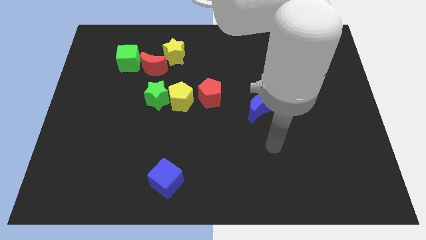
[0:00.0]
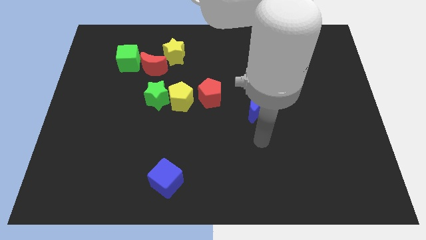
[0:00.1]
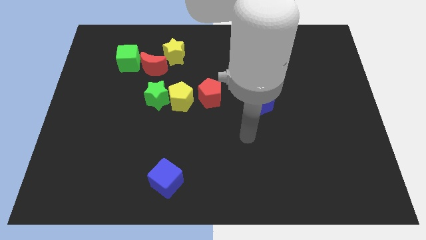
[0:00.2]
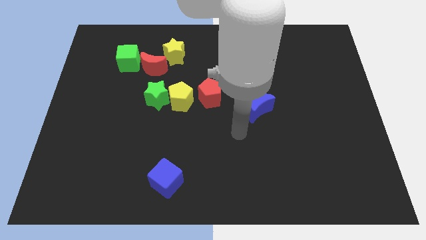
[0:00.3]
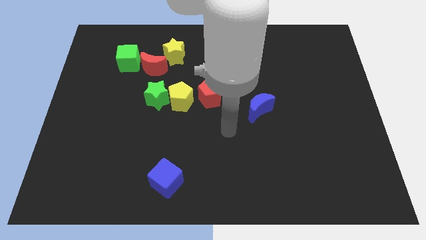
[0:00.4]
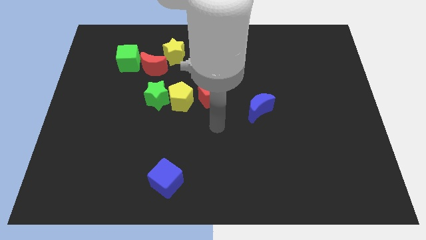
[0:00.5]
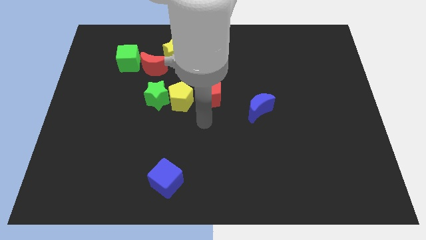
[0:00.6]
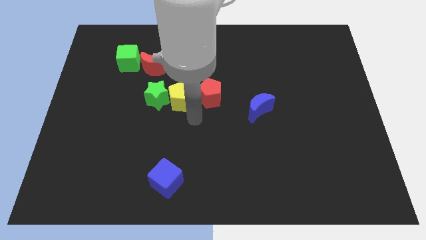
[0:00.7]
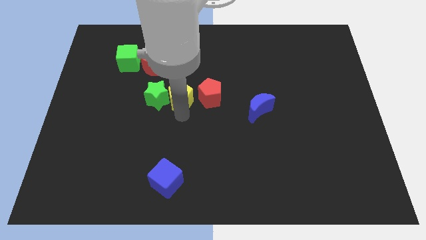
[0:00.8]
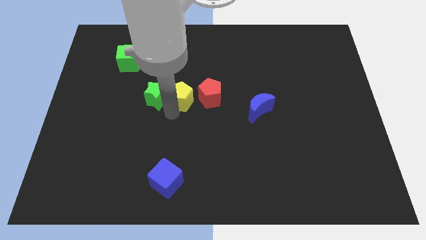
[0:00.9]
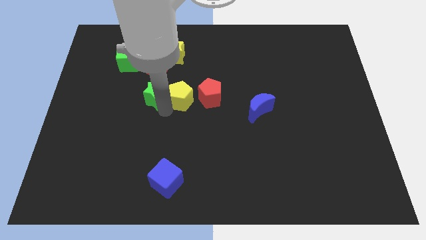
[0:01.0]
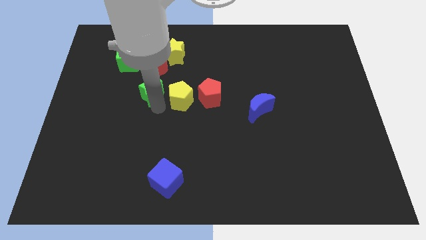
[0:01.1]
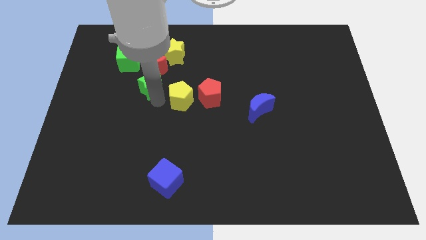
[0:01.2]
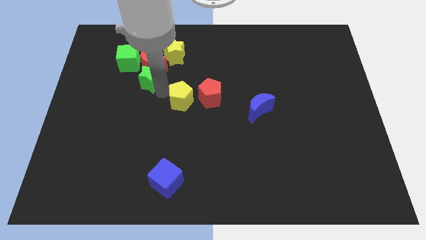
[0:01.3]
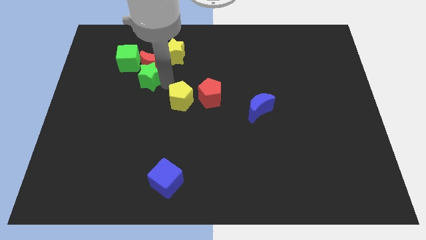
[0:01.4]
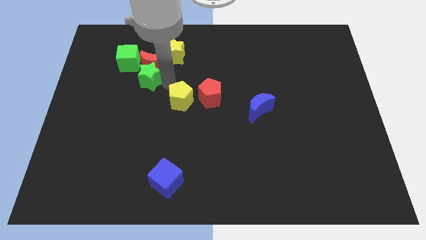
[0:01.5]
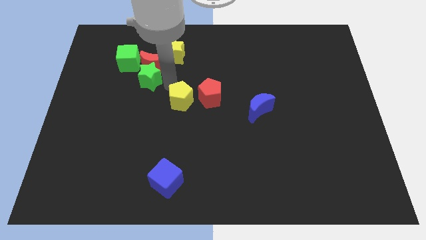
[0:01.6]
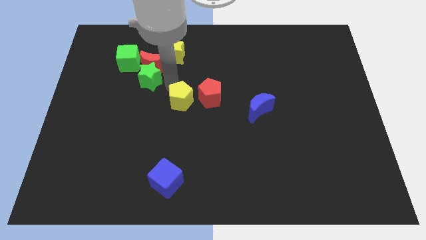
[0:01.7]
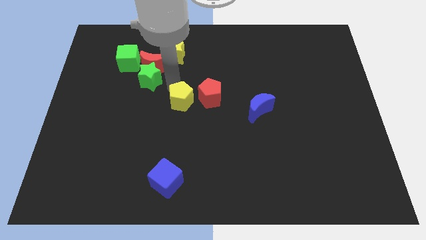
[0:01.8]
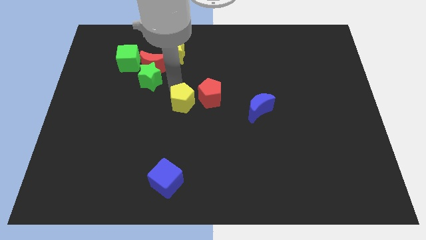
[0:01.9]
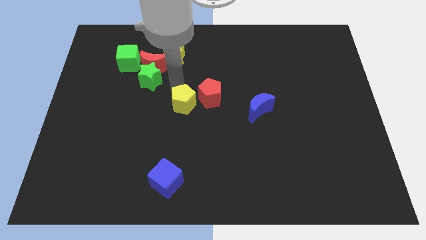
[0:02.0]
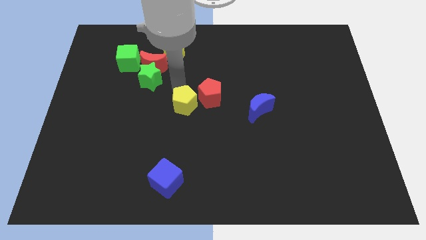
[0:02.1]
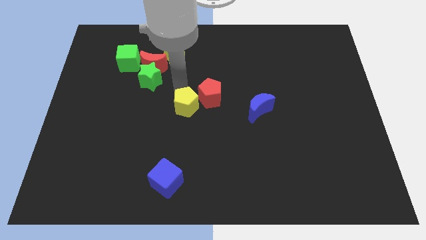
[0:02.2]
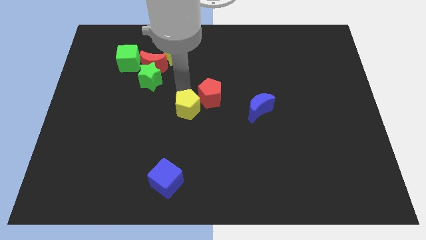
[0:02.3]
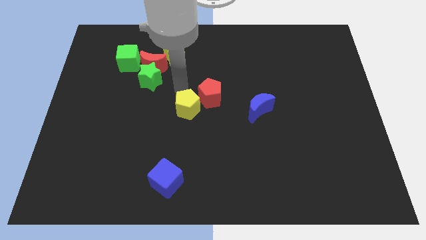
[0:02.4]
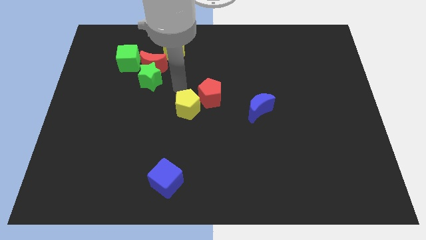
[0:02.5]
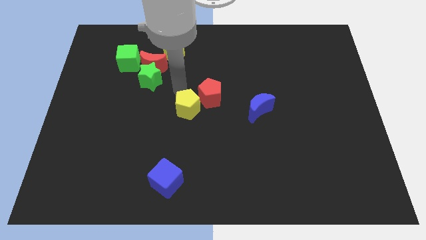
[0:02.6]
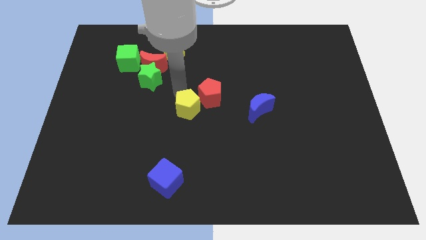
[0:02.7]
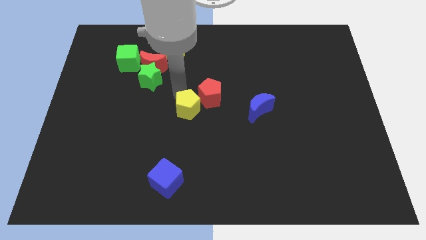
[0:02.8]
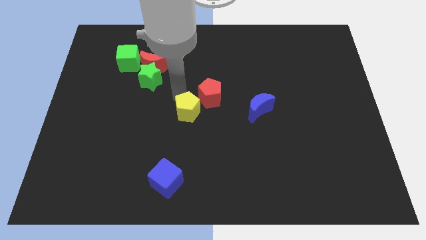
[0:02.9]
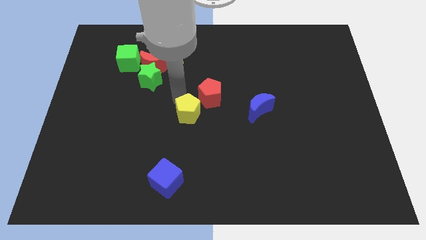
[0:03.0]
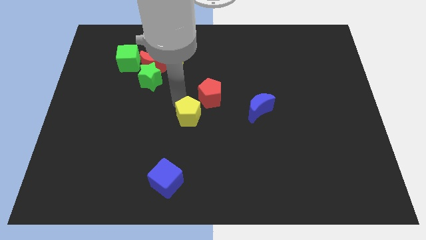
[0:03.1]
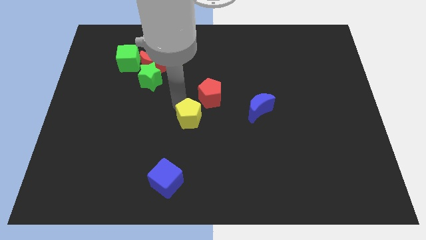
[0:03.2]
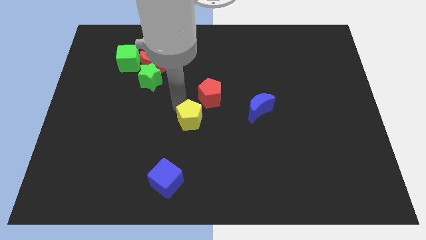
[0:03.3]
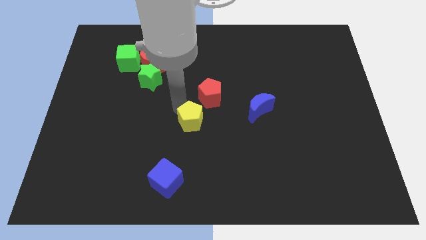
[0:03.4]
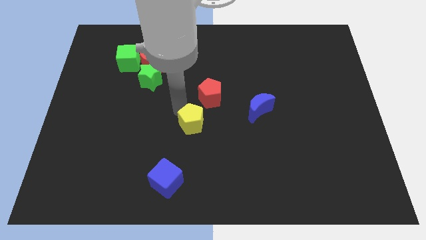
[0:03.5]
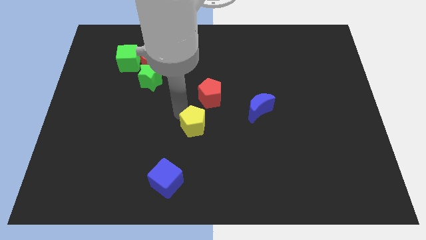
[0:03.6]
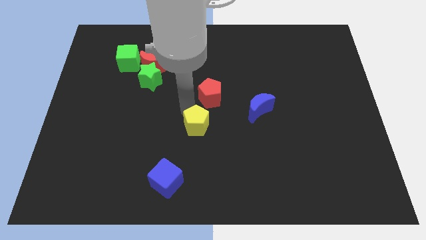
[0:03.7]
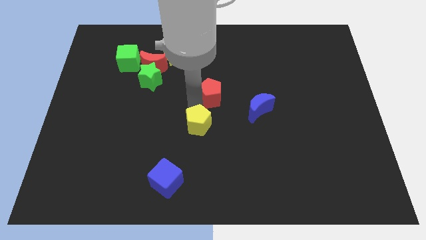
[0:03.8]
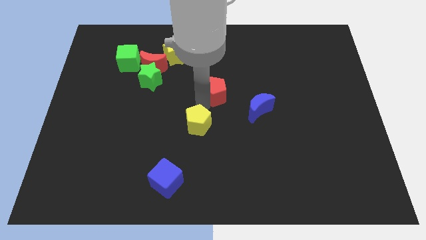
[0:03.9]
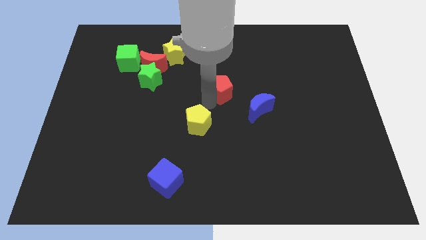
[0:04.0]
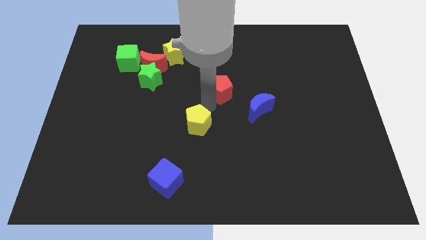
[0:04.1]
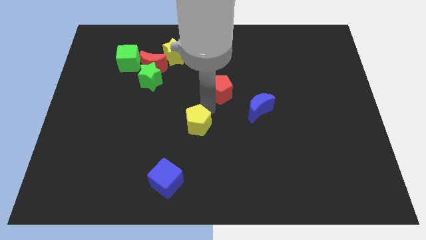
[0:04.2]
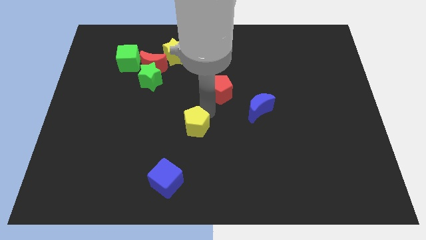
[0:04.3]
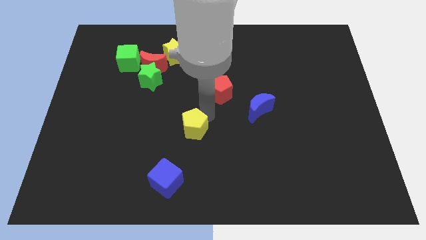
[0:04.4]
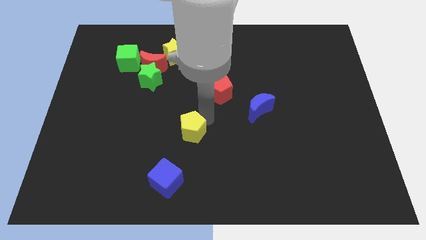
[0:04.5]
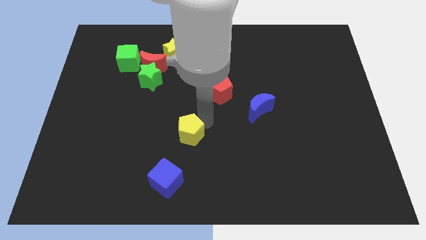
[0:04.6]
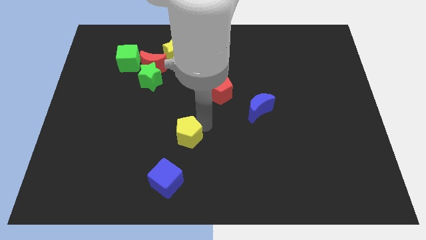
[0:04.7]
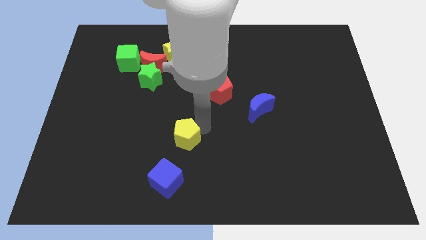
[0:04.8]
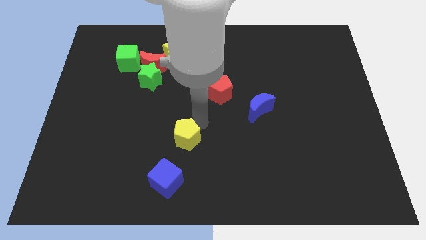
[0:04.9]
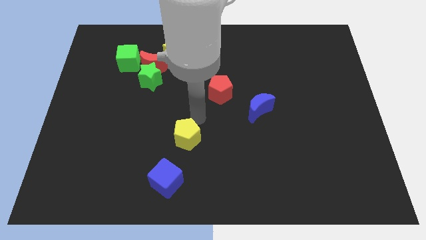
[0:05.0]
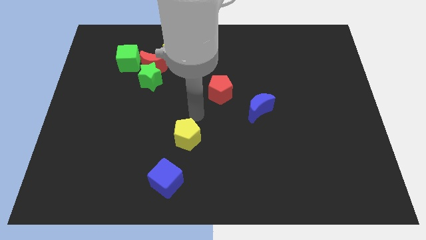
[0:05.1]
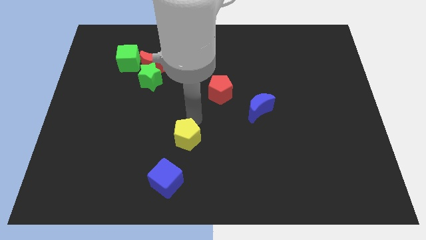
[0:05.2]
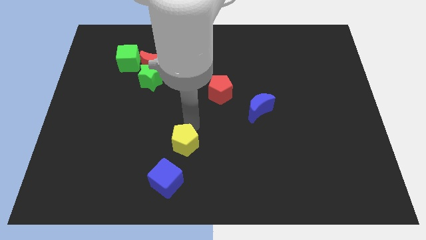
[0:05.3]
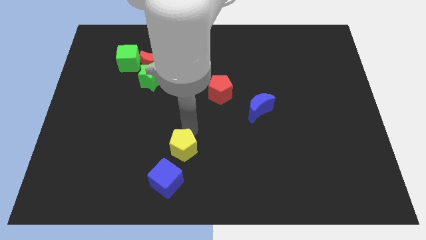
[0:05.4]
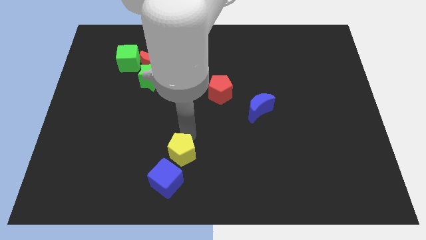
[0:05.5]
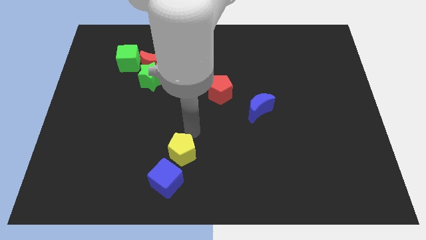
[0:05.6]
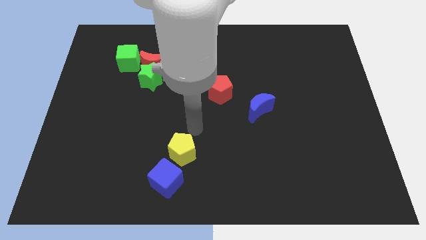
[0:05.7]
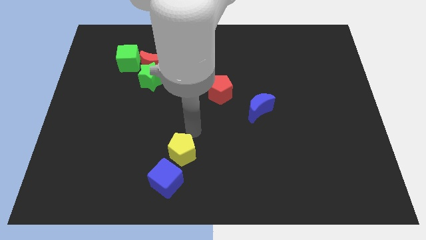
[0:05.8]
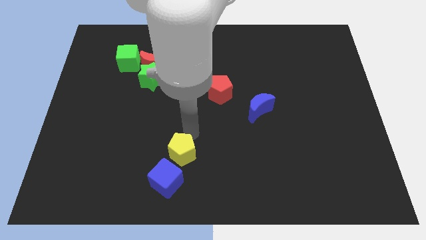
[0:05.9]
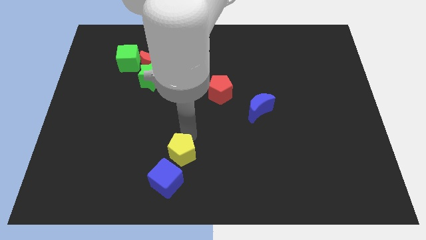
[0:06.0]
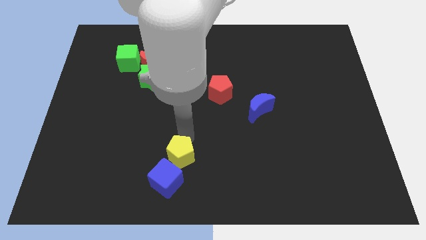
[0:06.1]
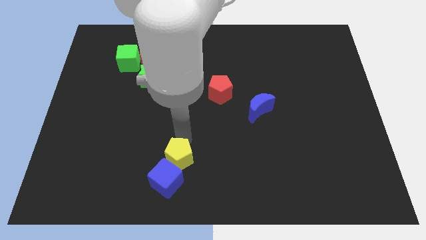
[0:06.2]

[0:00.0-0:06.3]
slide the yellow pentagon close to the blue cube

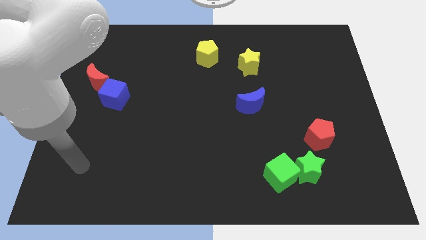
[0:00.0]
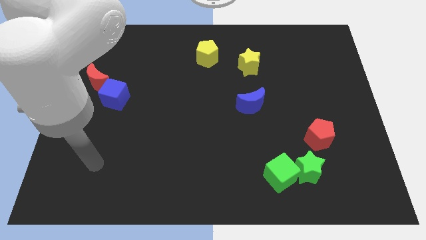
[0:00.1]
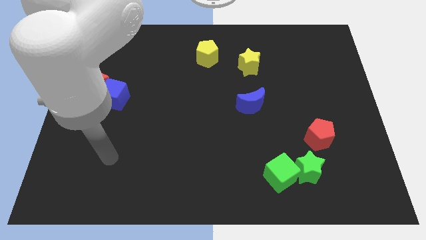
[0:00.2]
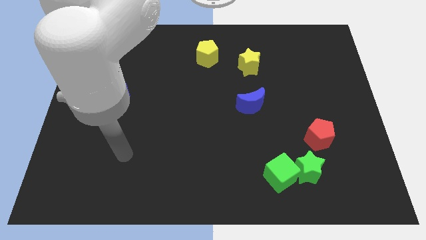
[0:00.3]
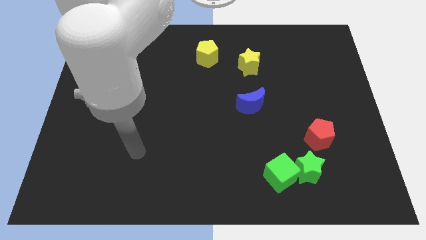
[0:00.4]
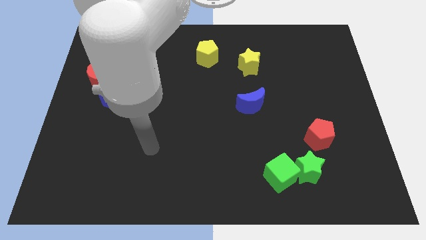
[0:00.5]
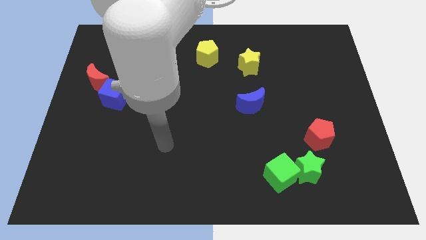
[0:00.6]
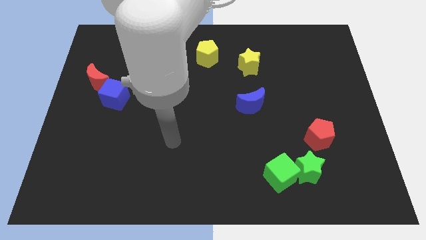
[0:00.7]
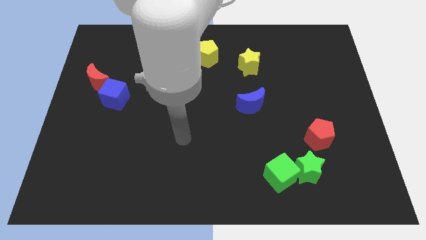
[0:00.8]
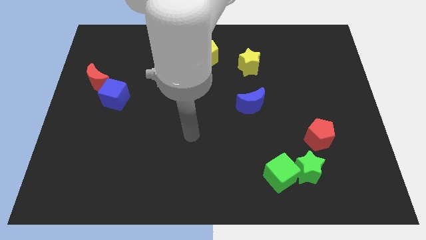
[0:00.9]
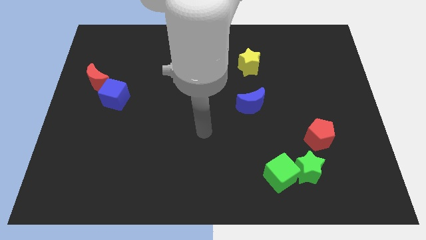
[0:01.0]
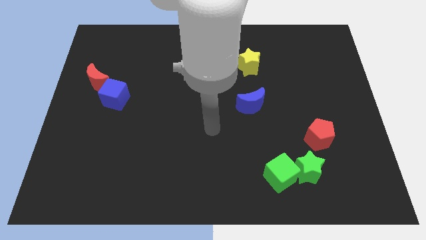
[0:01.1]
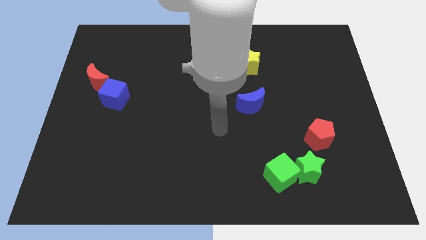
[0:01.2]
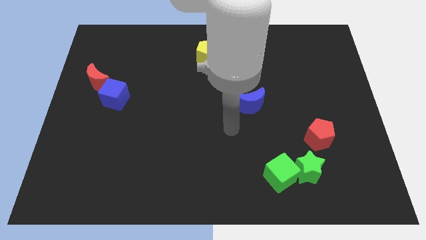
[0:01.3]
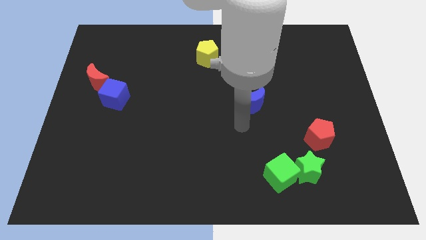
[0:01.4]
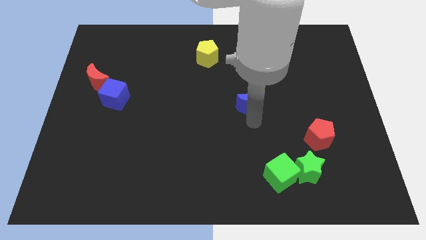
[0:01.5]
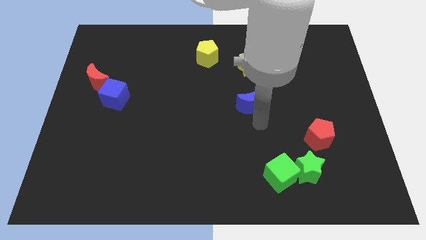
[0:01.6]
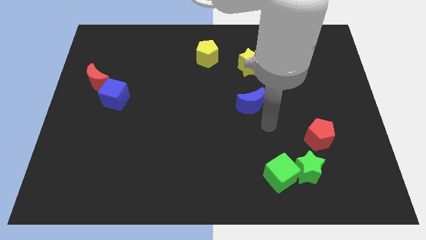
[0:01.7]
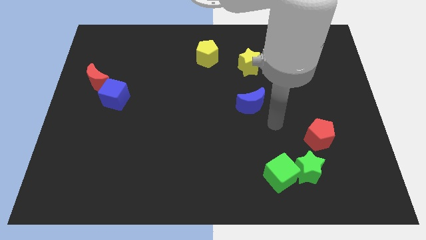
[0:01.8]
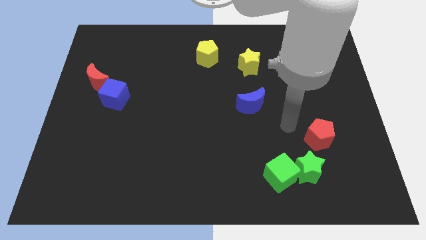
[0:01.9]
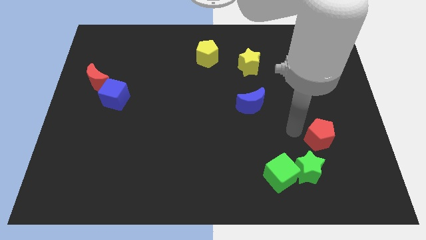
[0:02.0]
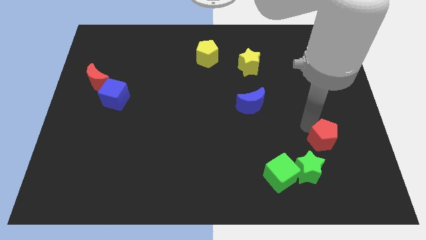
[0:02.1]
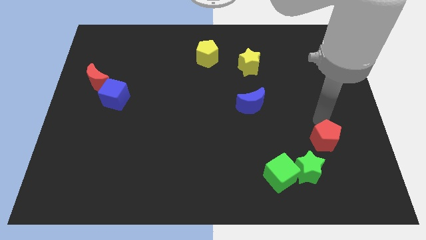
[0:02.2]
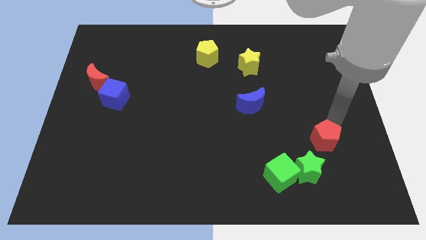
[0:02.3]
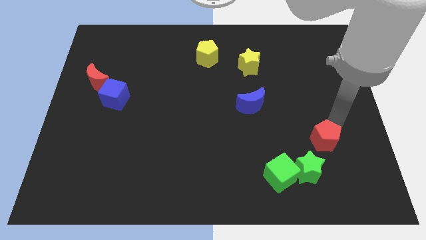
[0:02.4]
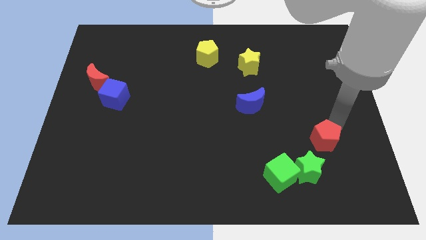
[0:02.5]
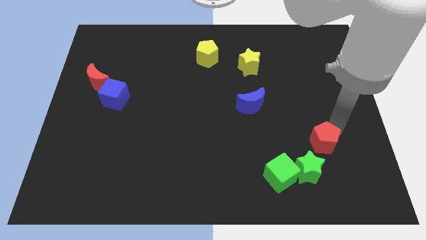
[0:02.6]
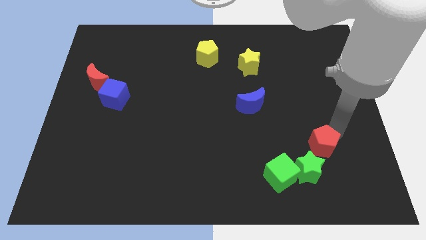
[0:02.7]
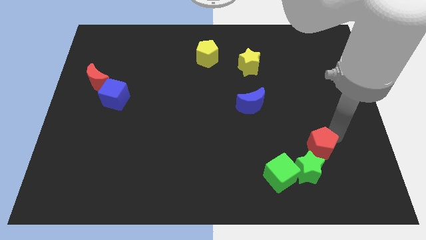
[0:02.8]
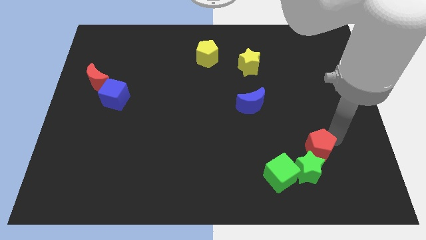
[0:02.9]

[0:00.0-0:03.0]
slide the red pentagon close to the green star
